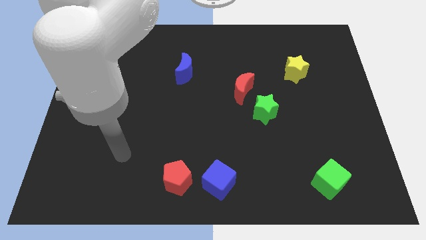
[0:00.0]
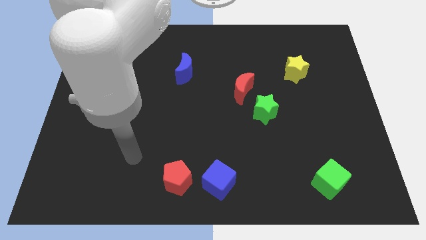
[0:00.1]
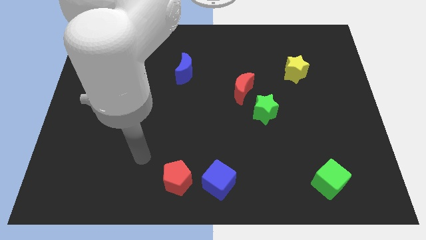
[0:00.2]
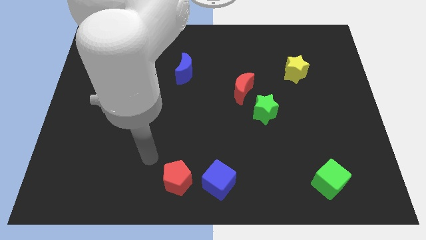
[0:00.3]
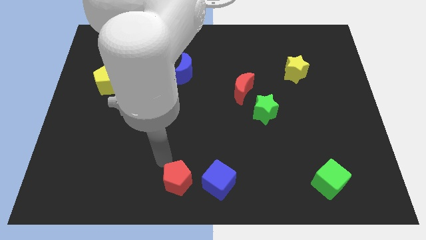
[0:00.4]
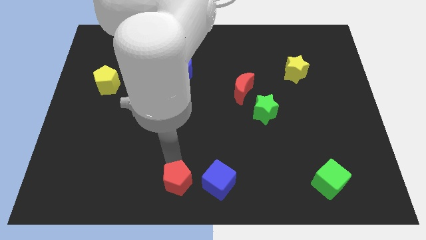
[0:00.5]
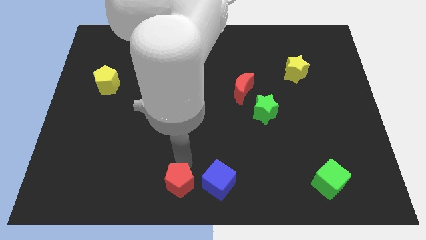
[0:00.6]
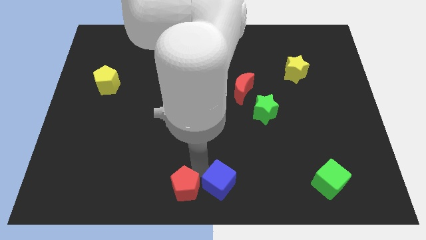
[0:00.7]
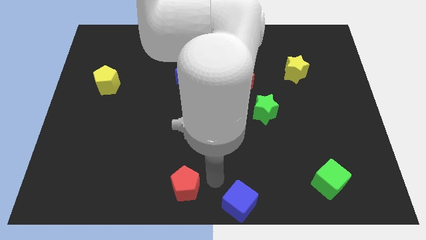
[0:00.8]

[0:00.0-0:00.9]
pull the red pentagon apart from the blue cube

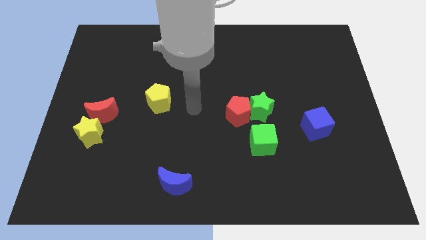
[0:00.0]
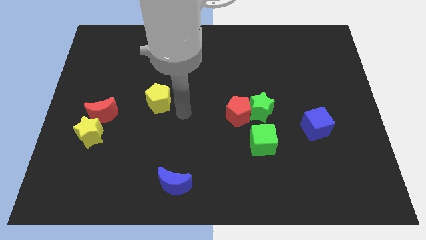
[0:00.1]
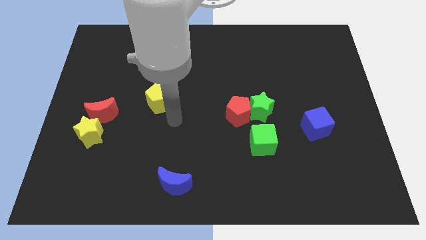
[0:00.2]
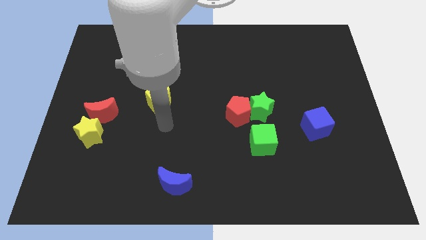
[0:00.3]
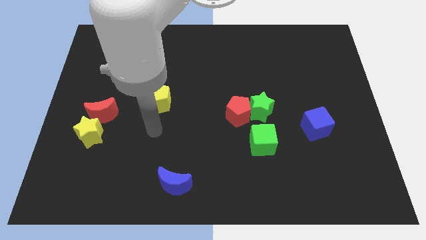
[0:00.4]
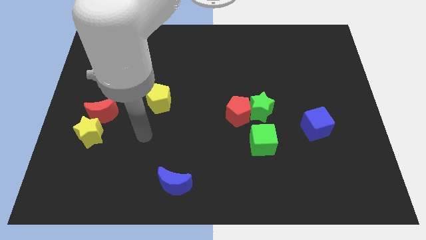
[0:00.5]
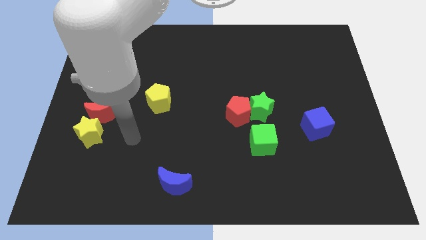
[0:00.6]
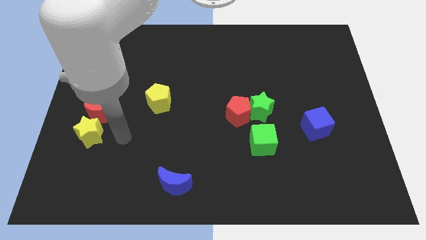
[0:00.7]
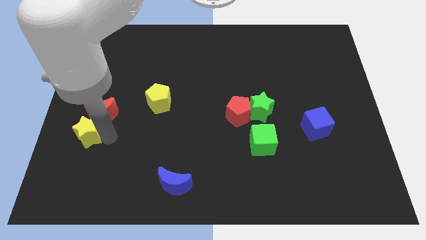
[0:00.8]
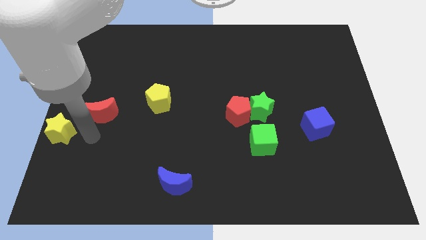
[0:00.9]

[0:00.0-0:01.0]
pull the red moon apart from the yellow star

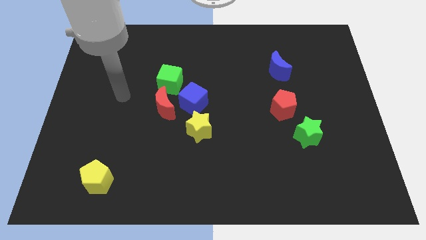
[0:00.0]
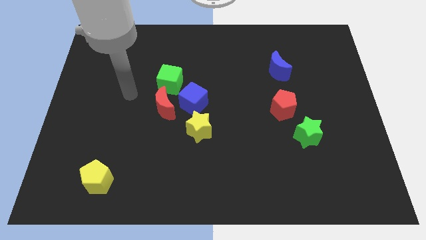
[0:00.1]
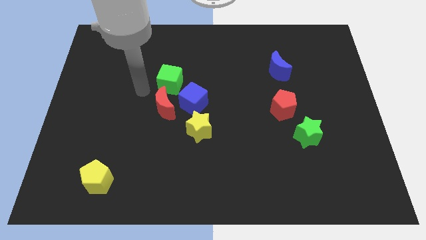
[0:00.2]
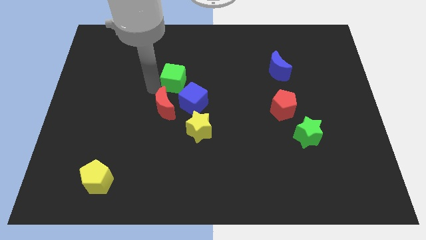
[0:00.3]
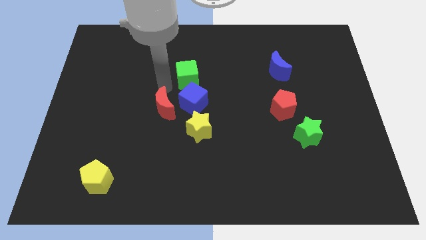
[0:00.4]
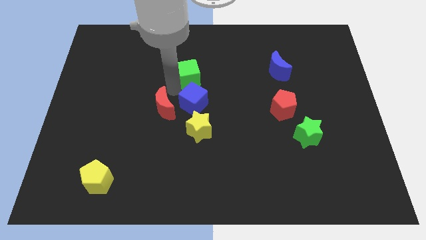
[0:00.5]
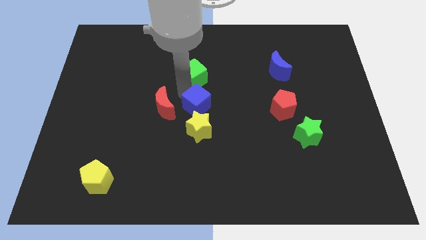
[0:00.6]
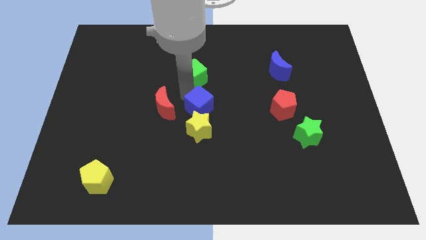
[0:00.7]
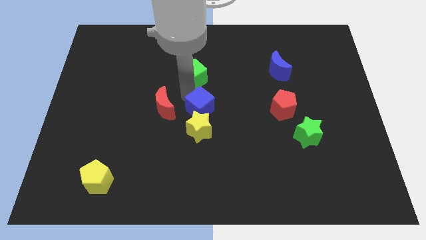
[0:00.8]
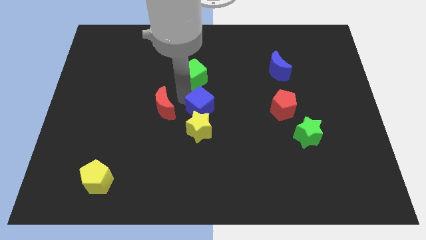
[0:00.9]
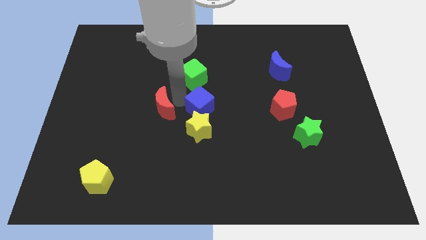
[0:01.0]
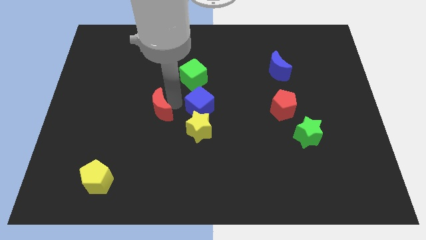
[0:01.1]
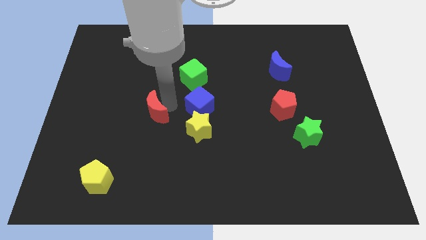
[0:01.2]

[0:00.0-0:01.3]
pull the red moon apart from the blue cube and green cube

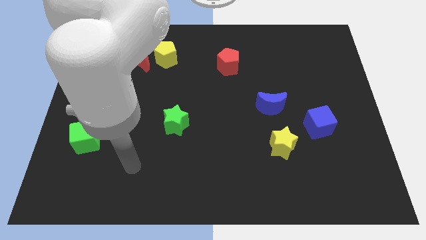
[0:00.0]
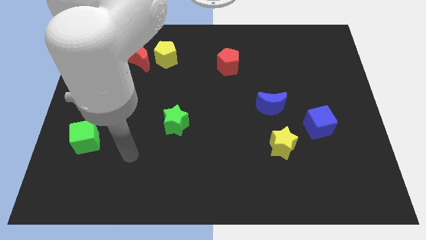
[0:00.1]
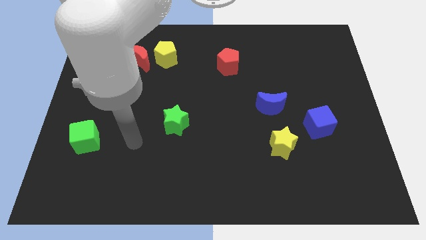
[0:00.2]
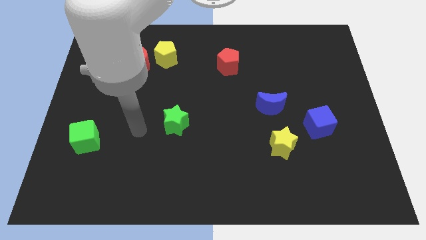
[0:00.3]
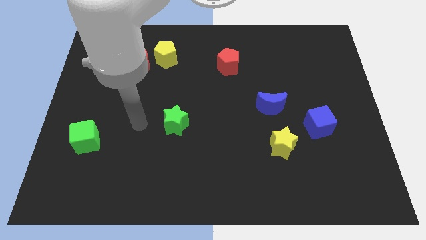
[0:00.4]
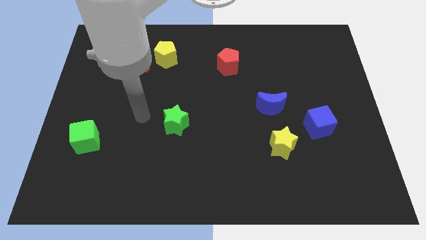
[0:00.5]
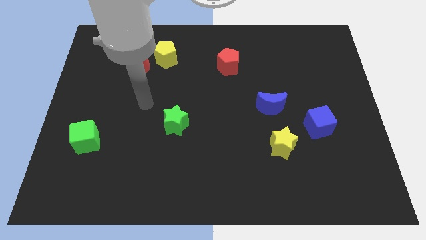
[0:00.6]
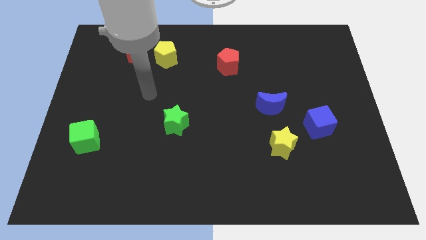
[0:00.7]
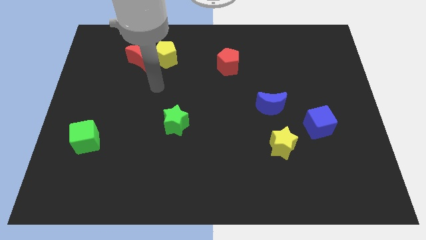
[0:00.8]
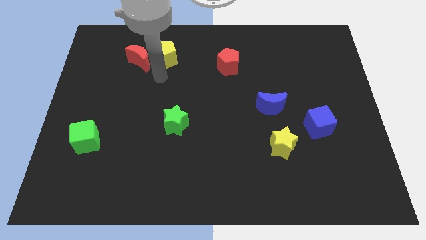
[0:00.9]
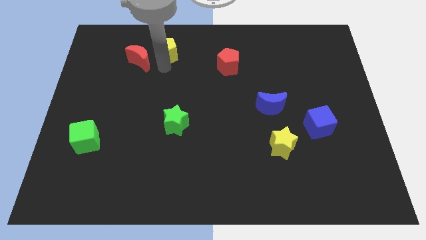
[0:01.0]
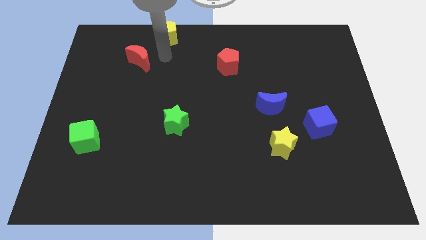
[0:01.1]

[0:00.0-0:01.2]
separate the red moon from the yellow pentagon

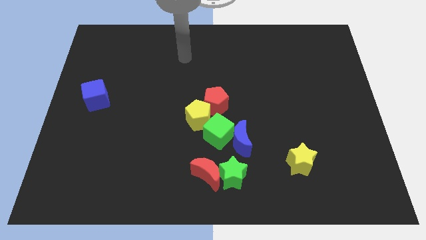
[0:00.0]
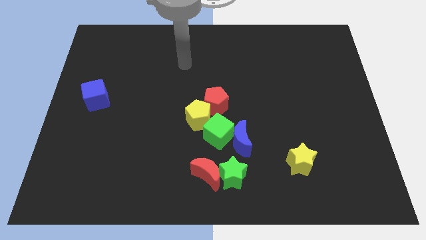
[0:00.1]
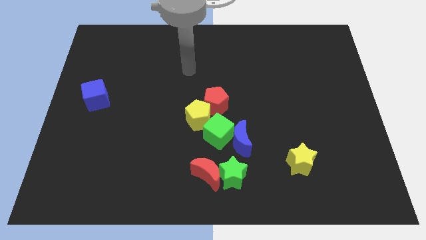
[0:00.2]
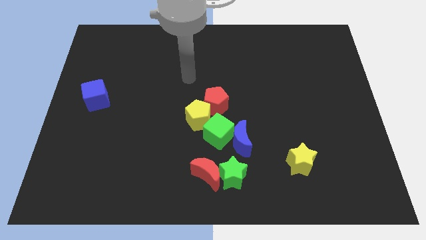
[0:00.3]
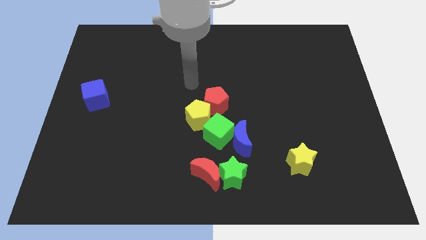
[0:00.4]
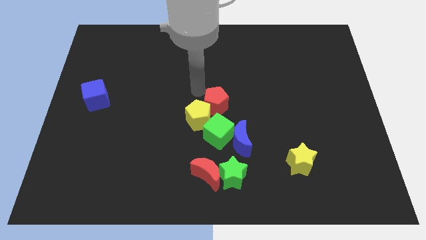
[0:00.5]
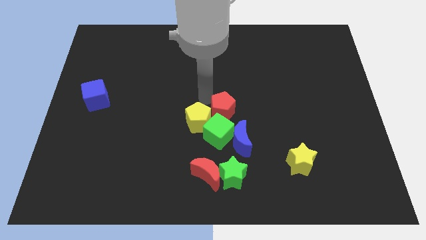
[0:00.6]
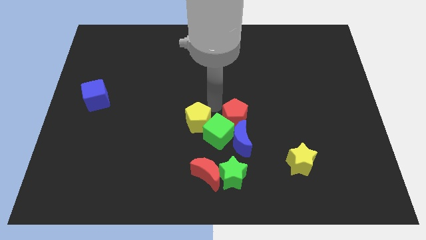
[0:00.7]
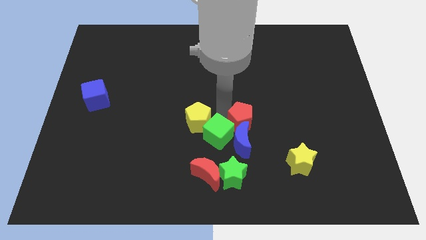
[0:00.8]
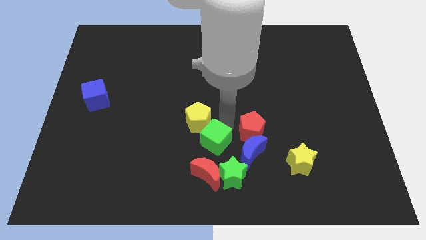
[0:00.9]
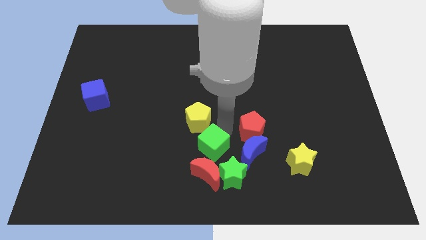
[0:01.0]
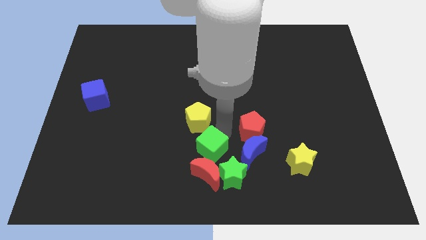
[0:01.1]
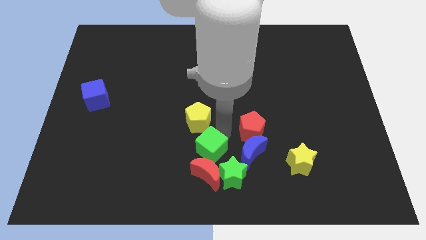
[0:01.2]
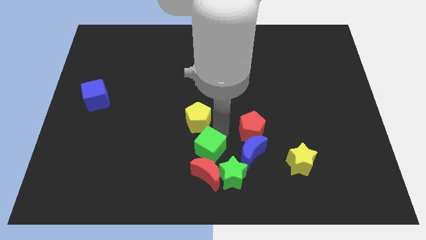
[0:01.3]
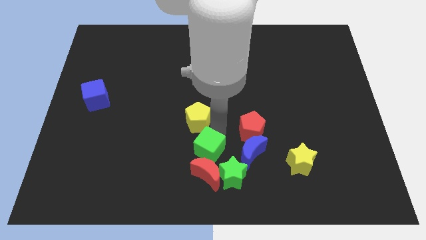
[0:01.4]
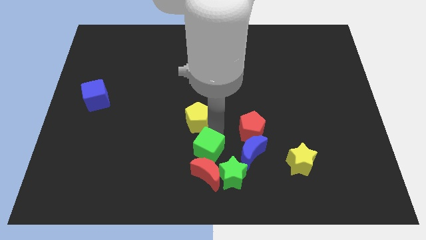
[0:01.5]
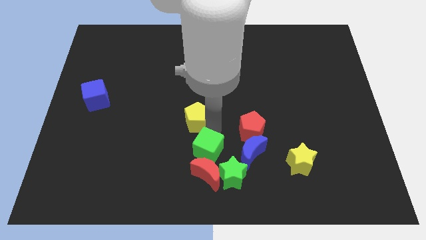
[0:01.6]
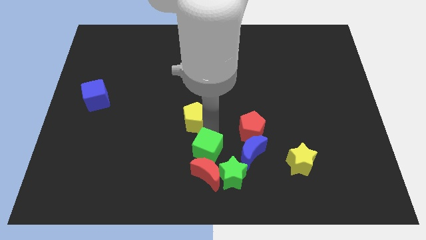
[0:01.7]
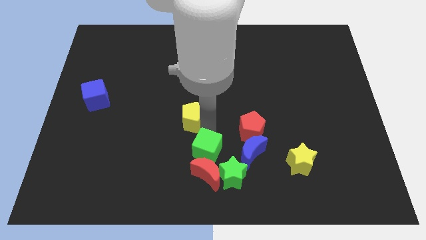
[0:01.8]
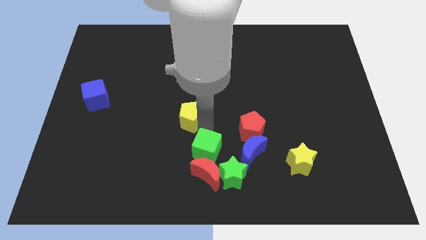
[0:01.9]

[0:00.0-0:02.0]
separate the yellow pentagon from the red pentagon and green cube

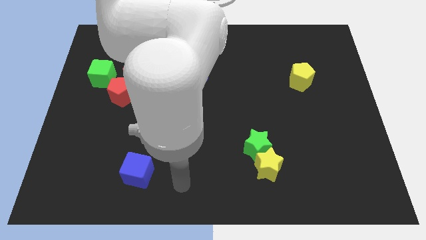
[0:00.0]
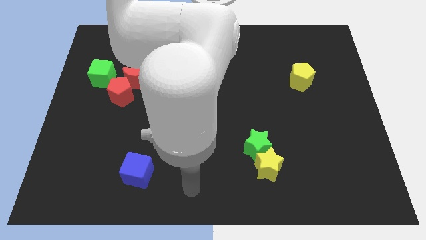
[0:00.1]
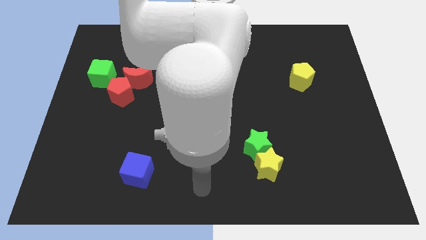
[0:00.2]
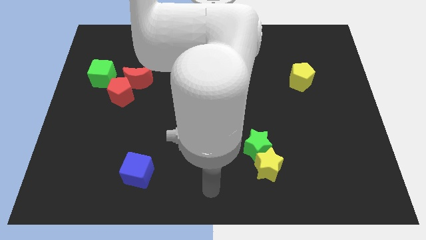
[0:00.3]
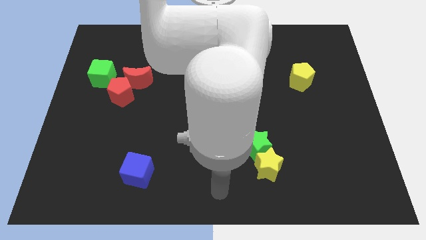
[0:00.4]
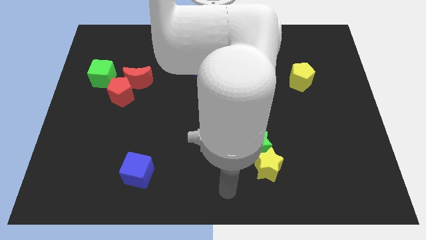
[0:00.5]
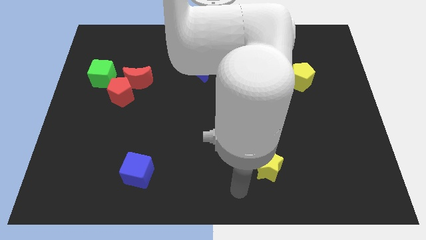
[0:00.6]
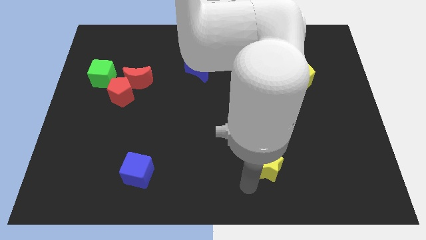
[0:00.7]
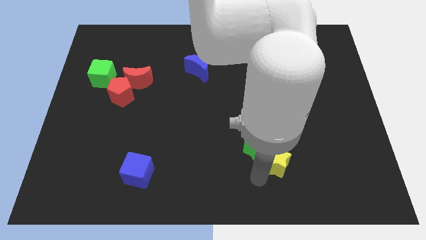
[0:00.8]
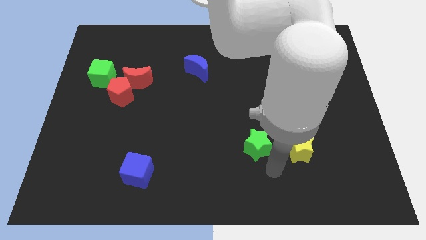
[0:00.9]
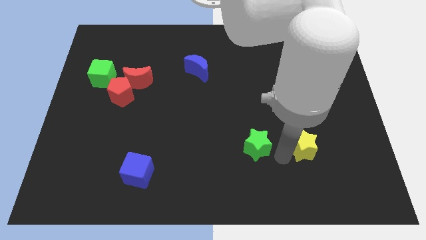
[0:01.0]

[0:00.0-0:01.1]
separate the green star from the yellow star

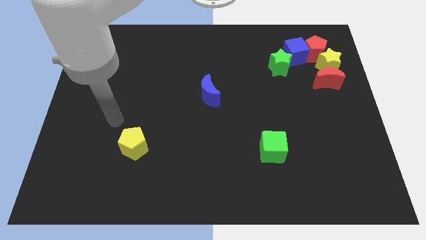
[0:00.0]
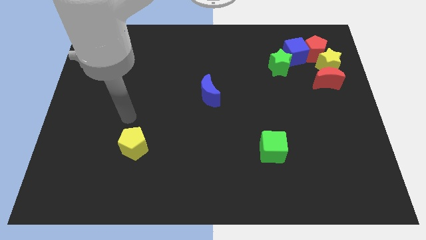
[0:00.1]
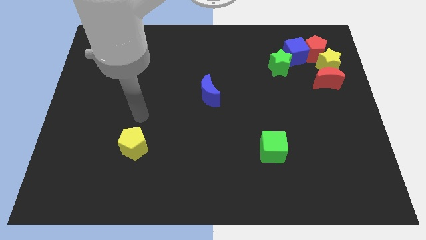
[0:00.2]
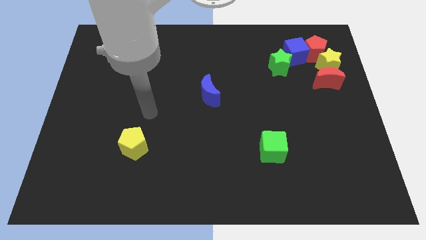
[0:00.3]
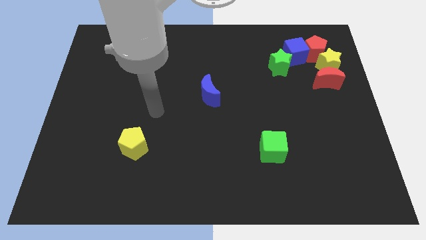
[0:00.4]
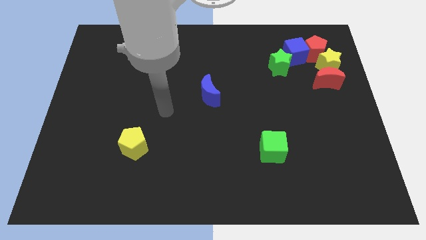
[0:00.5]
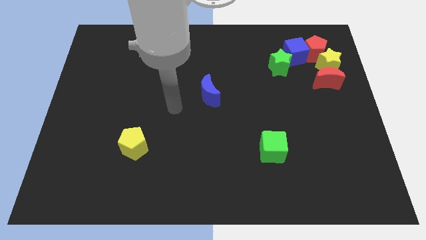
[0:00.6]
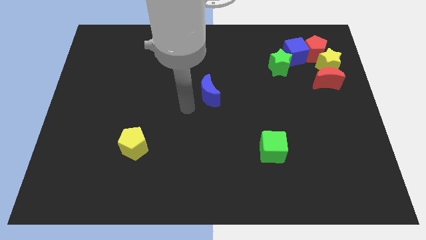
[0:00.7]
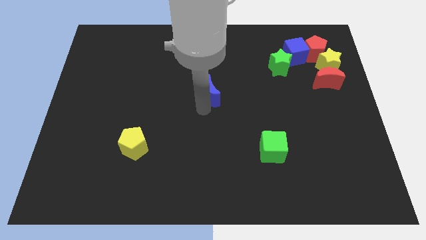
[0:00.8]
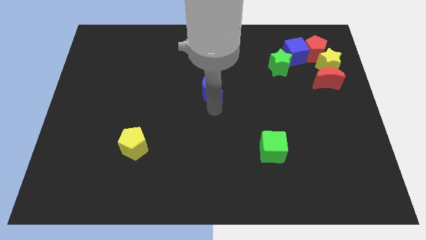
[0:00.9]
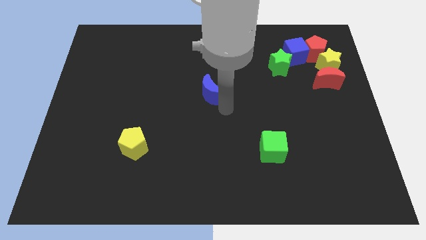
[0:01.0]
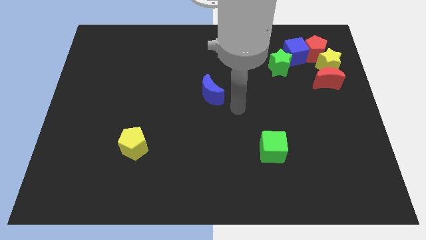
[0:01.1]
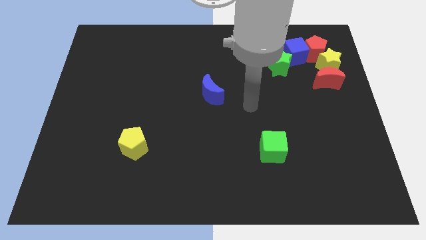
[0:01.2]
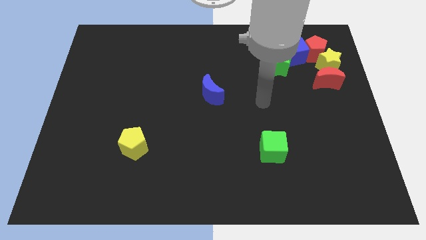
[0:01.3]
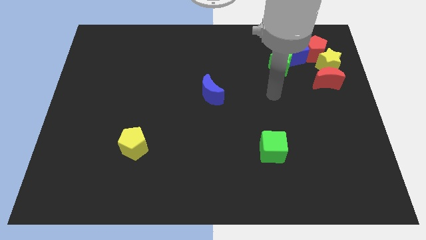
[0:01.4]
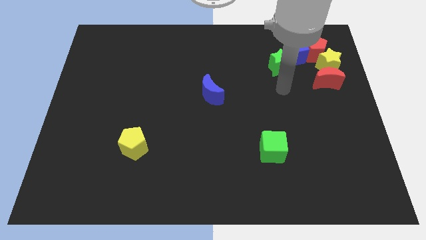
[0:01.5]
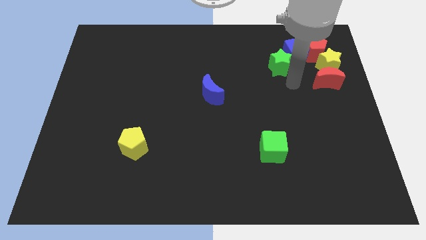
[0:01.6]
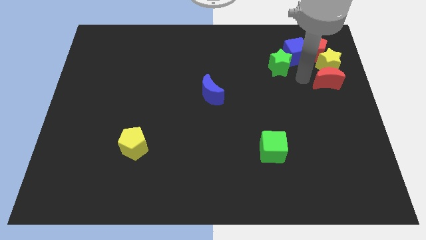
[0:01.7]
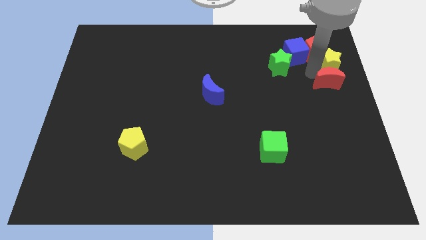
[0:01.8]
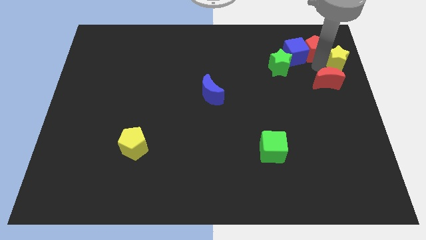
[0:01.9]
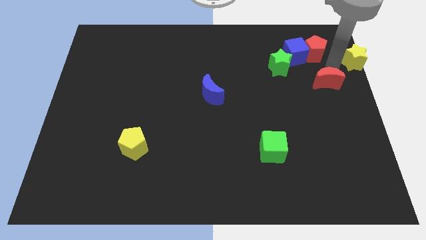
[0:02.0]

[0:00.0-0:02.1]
move the red moon away from the yellow star
